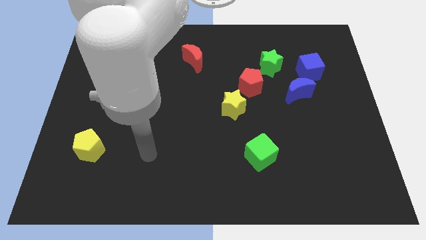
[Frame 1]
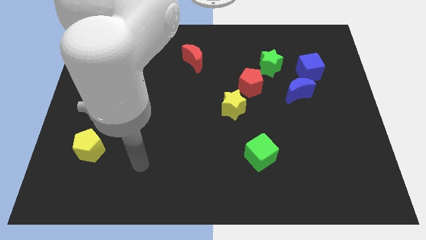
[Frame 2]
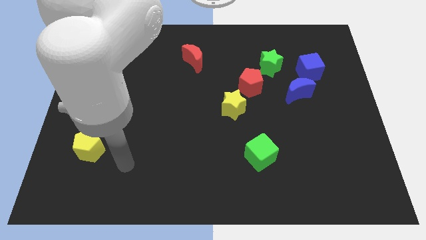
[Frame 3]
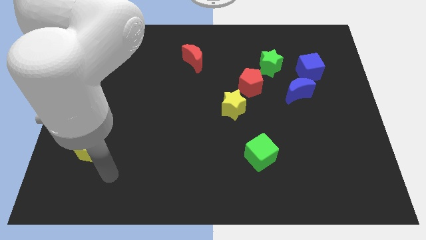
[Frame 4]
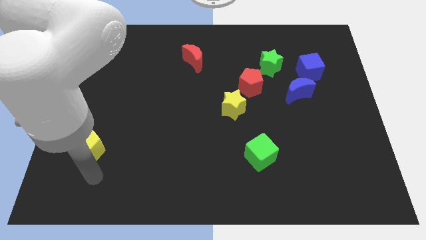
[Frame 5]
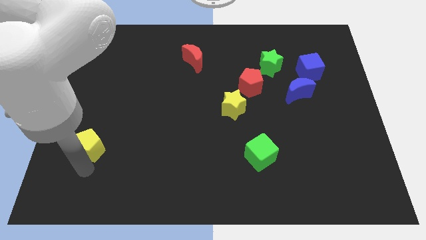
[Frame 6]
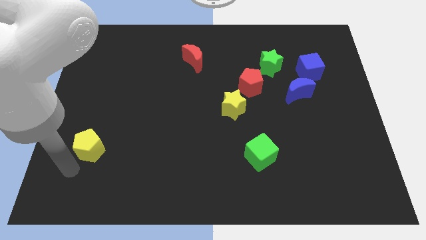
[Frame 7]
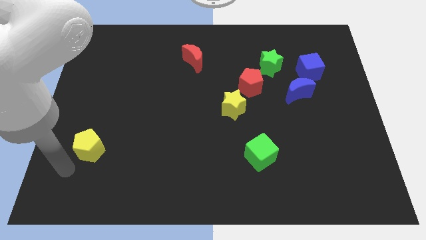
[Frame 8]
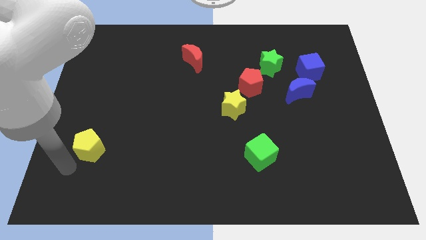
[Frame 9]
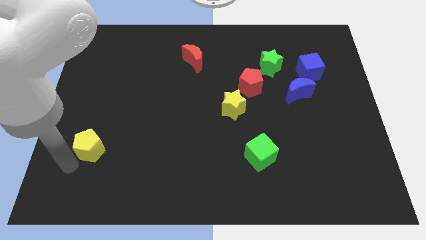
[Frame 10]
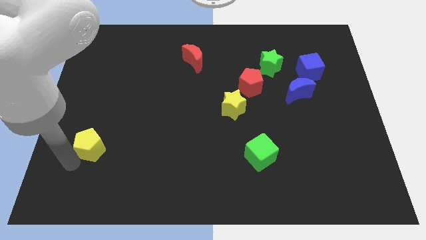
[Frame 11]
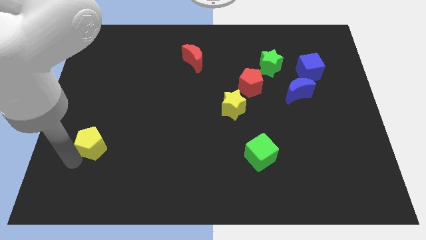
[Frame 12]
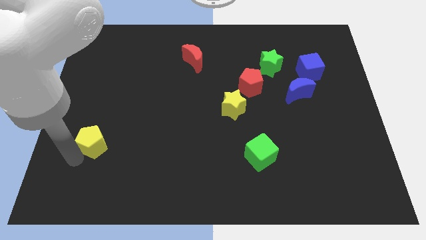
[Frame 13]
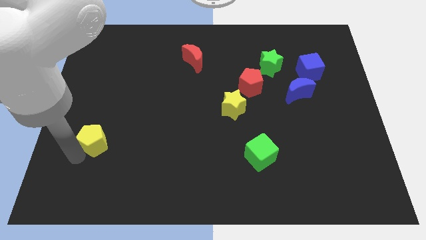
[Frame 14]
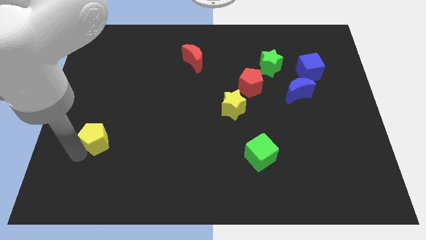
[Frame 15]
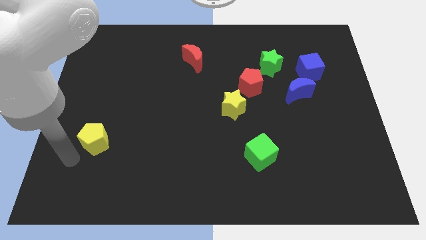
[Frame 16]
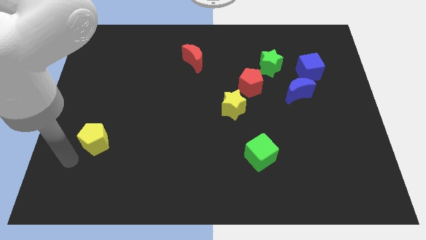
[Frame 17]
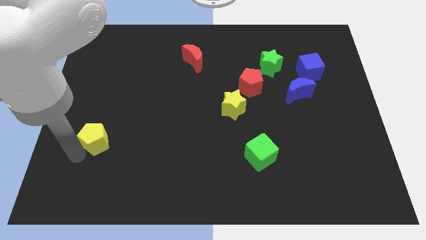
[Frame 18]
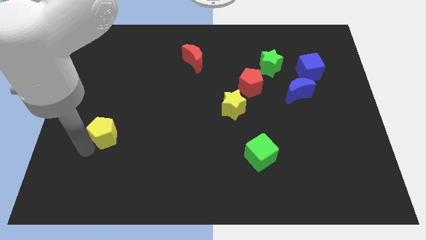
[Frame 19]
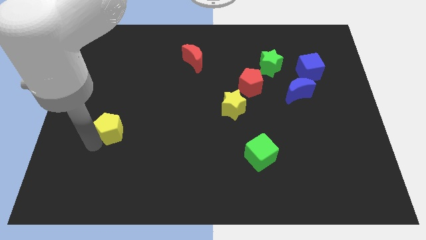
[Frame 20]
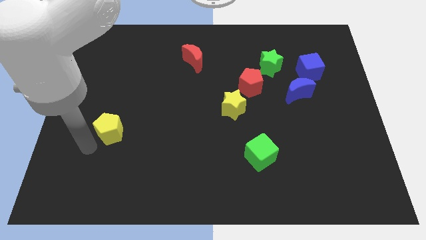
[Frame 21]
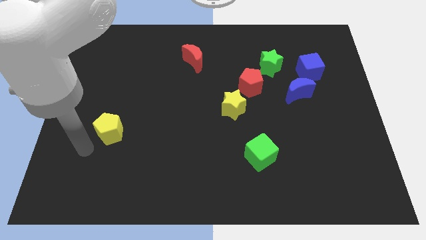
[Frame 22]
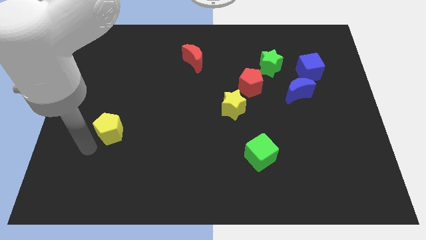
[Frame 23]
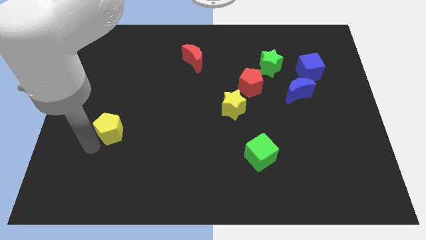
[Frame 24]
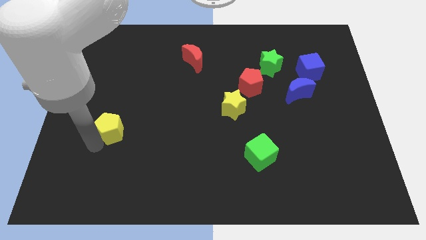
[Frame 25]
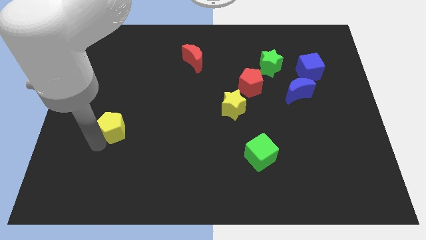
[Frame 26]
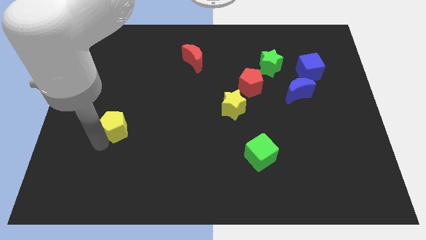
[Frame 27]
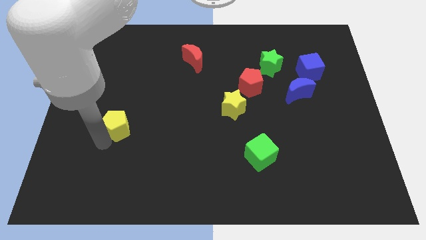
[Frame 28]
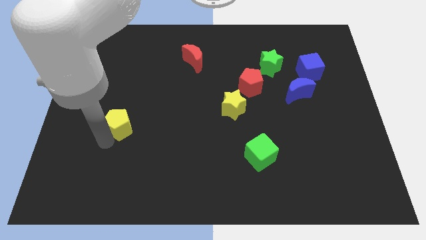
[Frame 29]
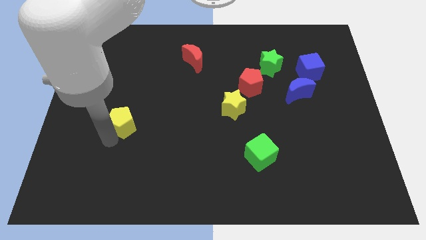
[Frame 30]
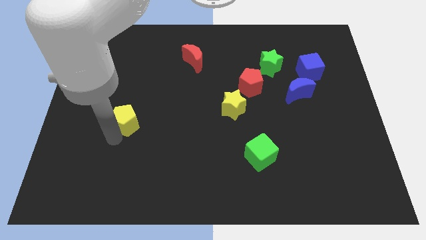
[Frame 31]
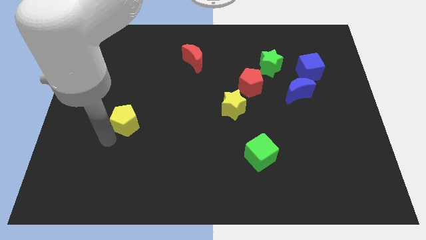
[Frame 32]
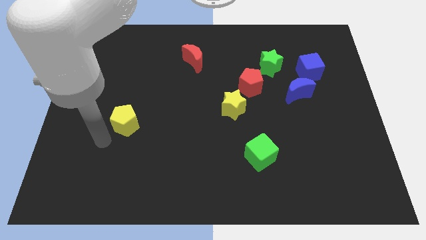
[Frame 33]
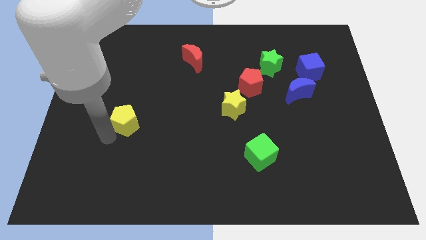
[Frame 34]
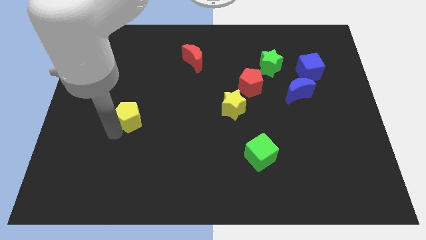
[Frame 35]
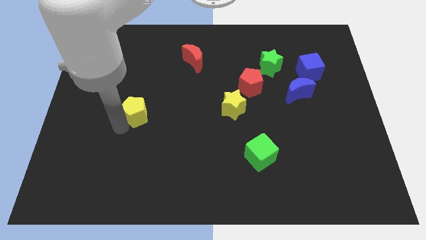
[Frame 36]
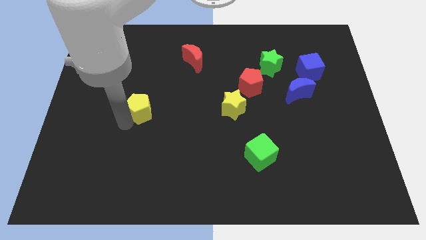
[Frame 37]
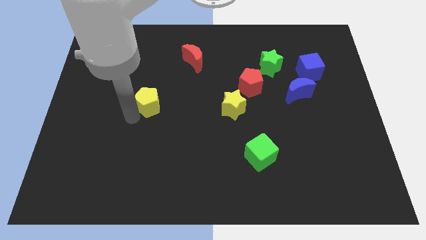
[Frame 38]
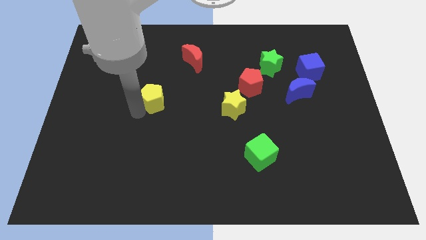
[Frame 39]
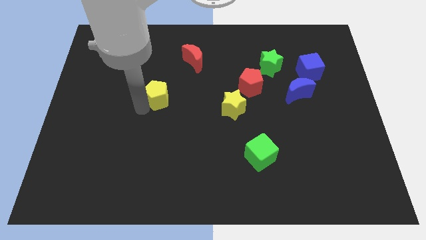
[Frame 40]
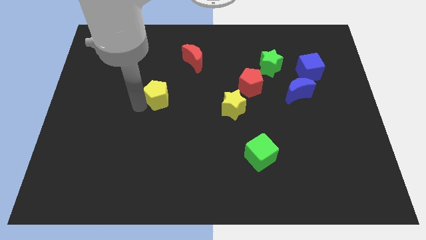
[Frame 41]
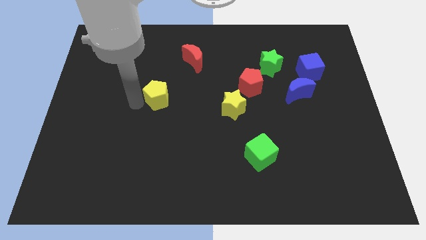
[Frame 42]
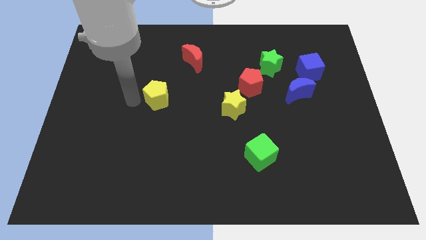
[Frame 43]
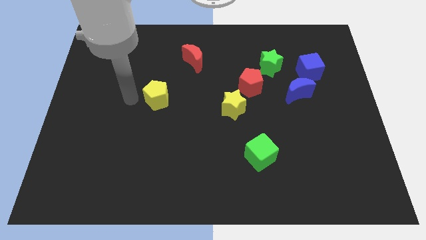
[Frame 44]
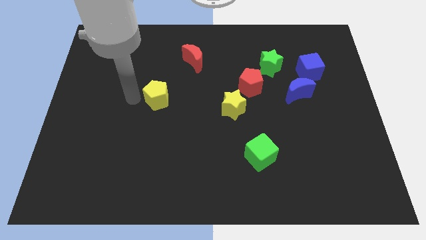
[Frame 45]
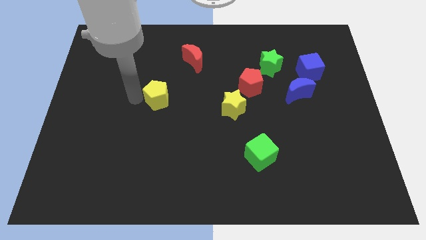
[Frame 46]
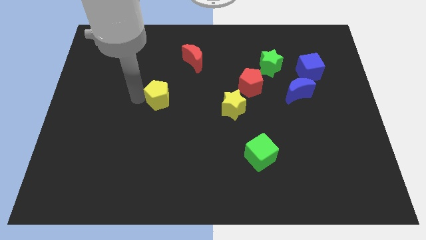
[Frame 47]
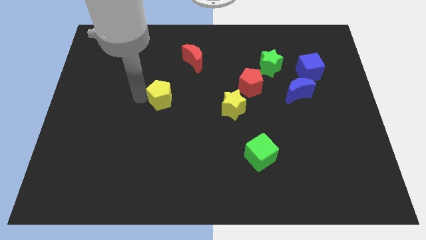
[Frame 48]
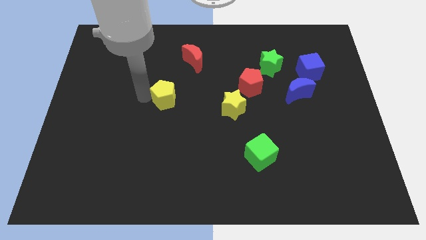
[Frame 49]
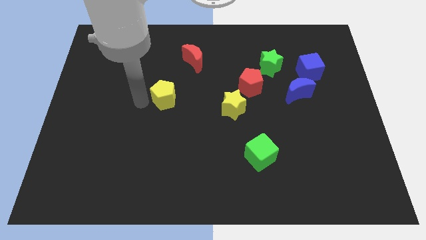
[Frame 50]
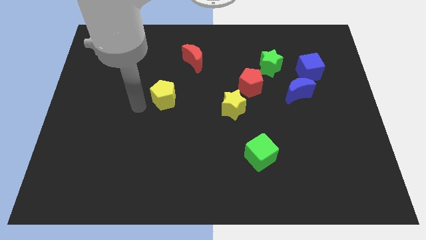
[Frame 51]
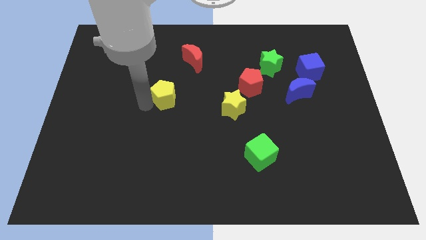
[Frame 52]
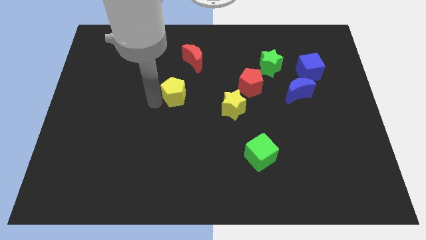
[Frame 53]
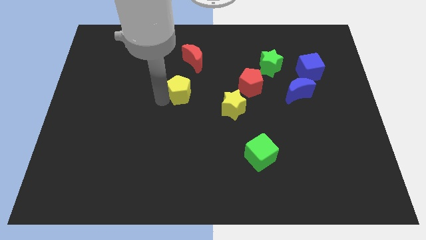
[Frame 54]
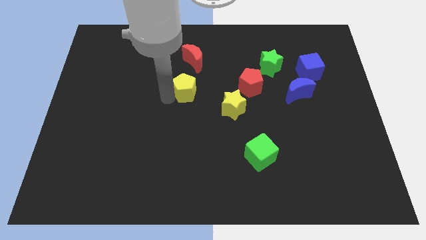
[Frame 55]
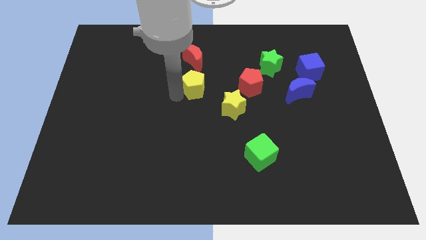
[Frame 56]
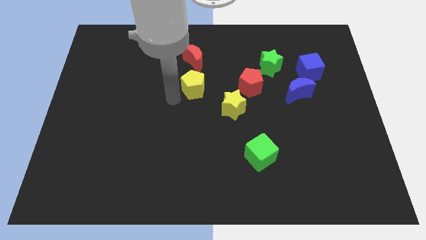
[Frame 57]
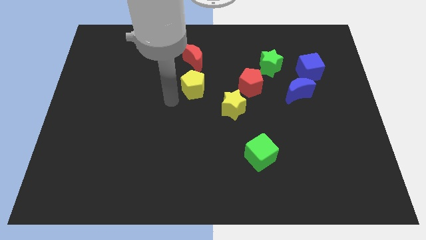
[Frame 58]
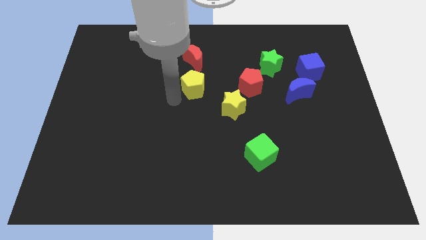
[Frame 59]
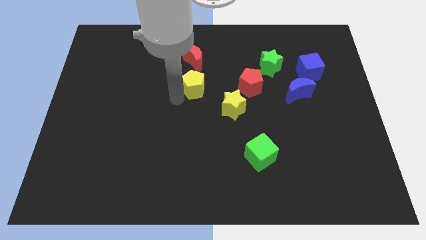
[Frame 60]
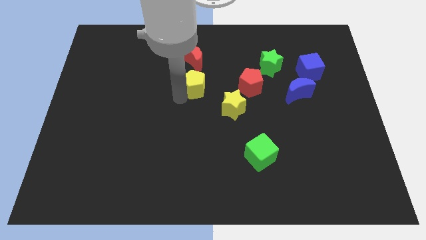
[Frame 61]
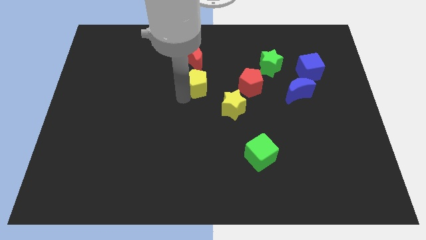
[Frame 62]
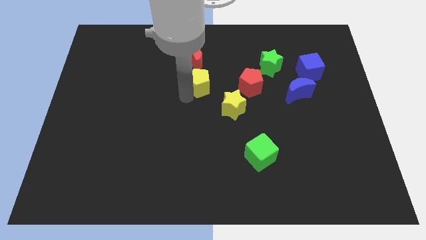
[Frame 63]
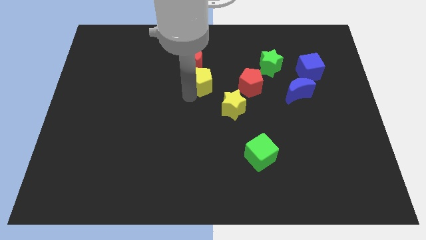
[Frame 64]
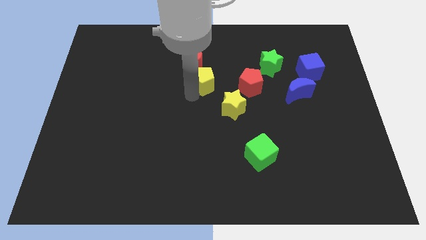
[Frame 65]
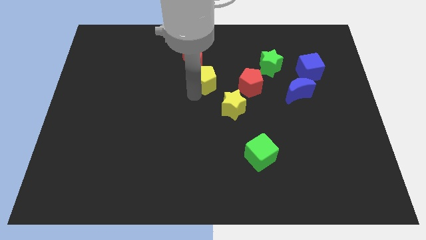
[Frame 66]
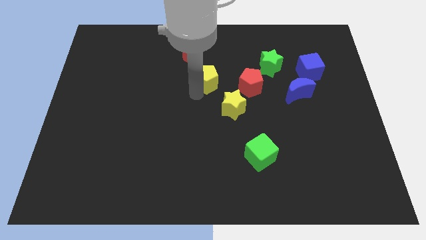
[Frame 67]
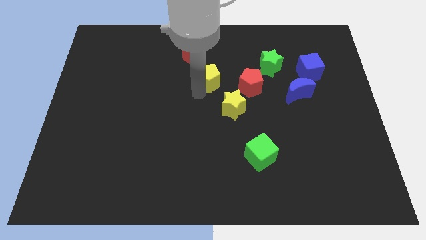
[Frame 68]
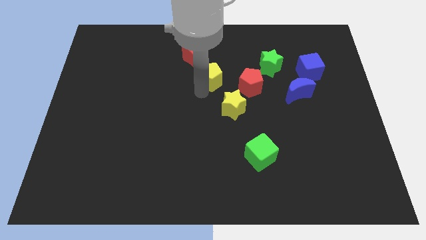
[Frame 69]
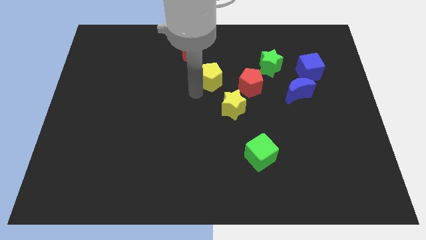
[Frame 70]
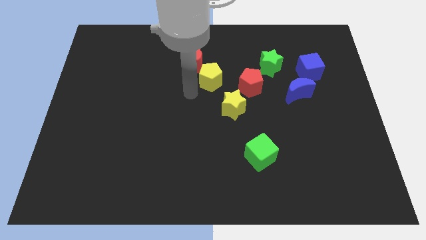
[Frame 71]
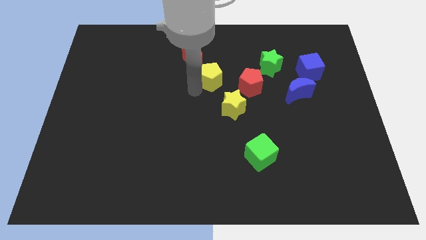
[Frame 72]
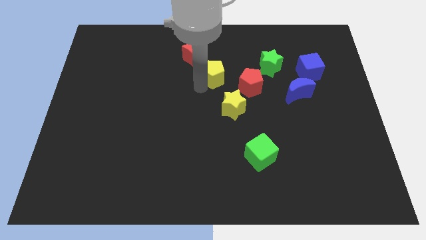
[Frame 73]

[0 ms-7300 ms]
push the yellow pentagon to the top left of the red pentagon
